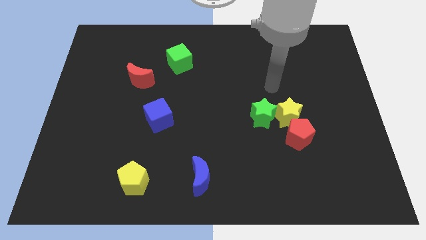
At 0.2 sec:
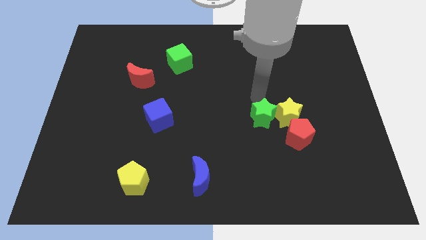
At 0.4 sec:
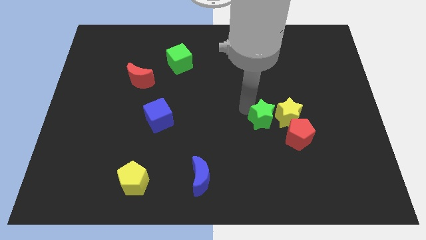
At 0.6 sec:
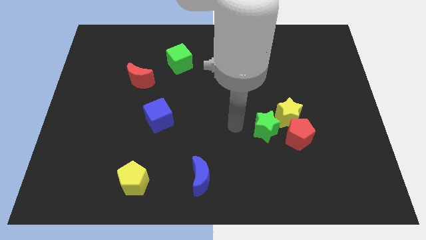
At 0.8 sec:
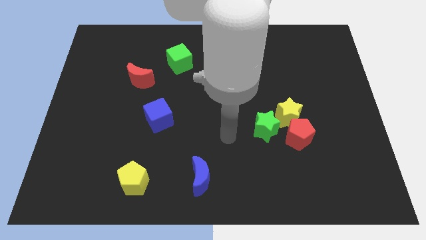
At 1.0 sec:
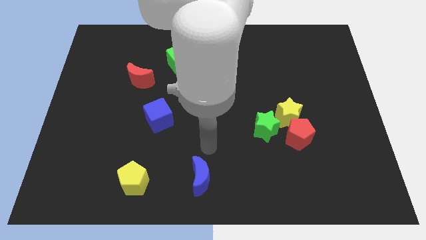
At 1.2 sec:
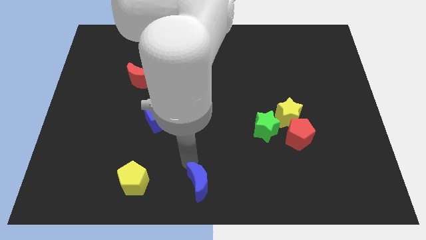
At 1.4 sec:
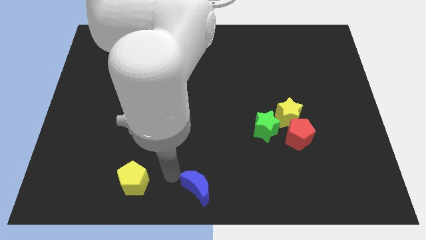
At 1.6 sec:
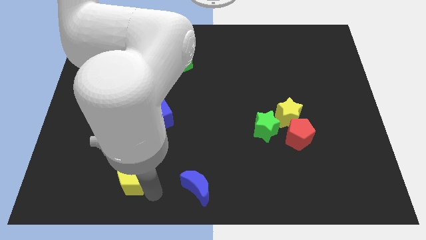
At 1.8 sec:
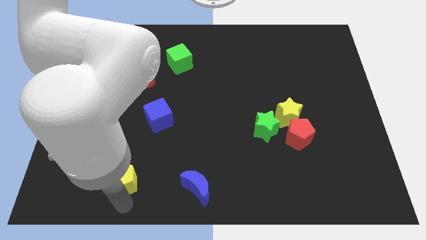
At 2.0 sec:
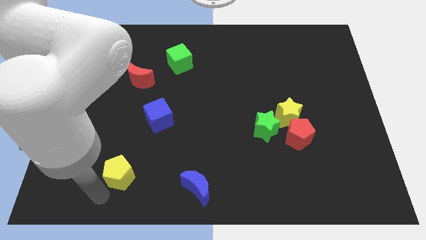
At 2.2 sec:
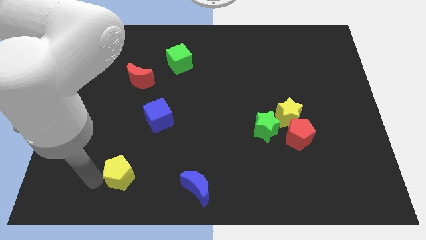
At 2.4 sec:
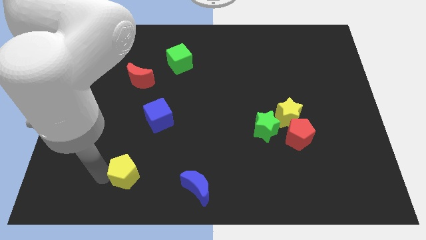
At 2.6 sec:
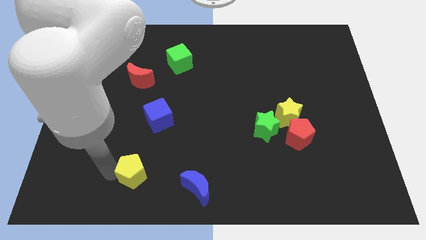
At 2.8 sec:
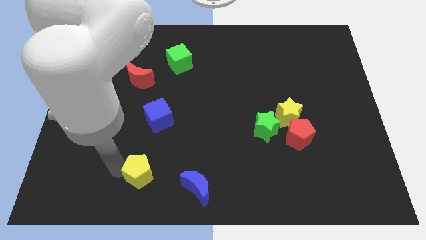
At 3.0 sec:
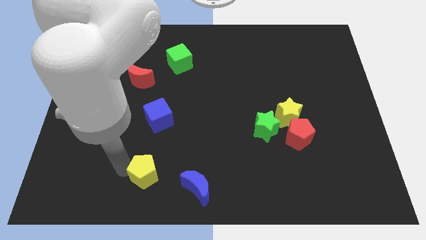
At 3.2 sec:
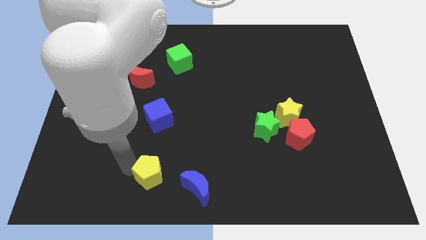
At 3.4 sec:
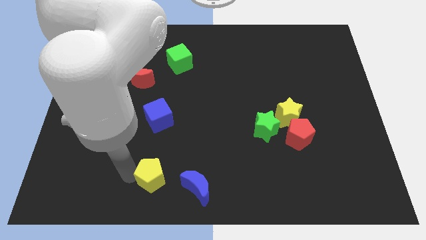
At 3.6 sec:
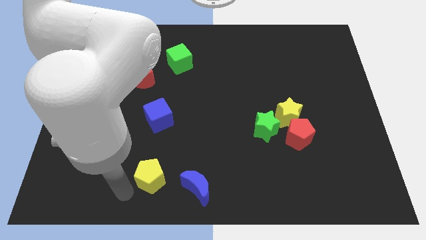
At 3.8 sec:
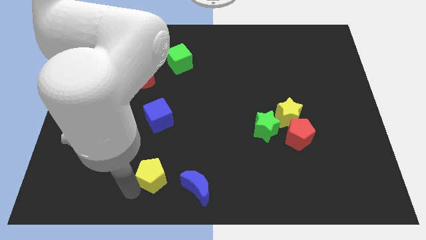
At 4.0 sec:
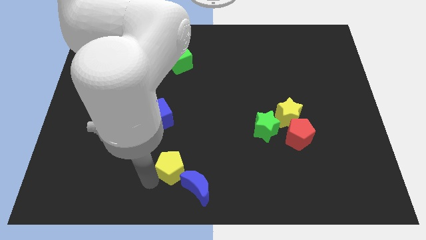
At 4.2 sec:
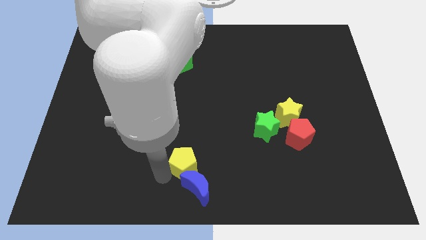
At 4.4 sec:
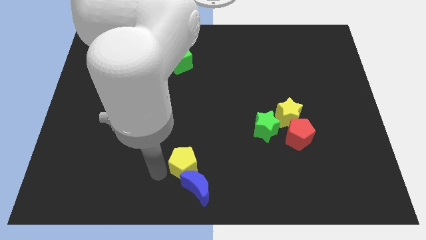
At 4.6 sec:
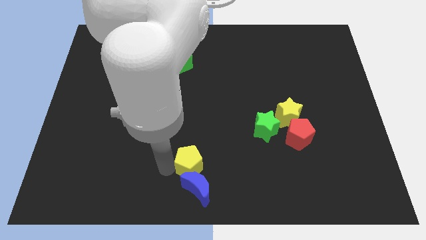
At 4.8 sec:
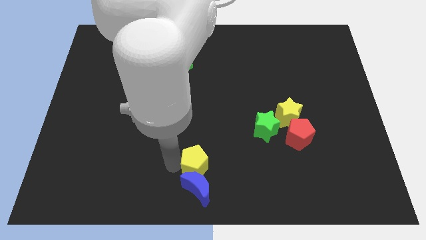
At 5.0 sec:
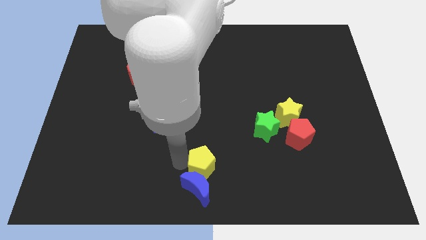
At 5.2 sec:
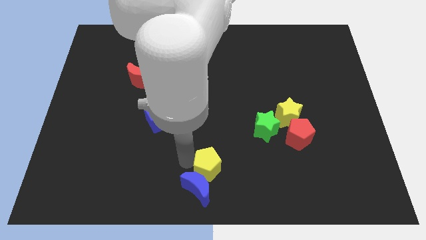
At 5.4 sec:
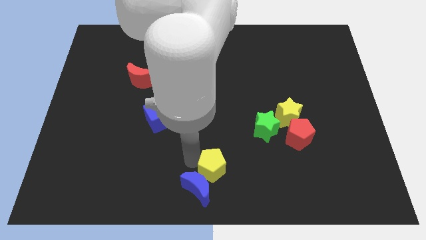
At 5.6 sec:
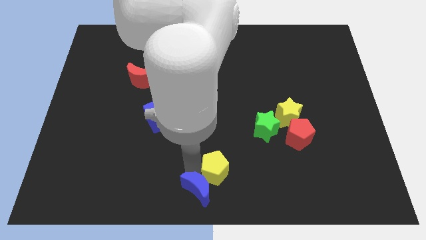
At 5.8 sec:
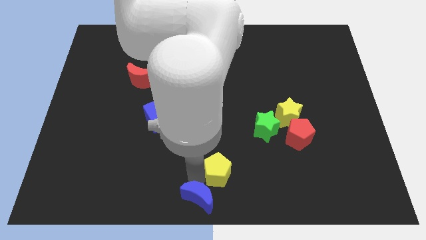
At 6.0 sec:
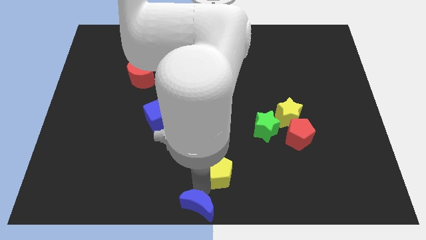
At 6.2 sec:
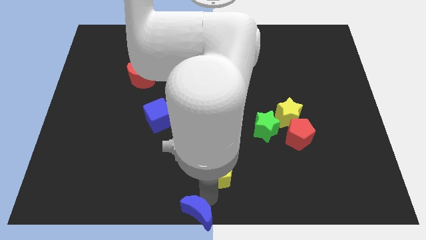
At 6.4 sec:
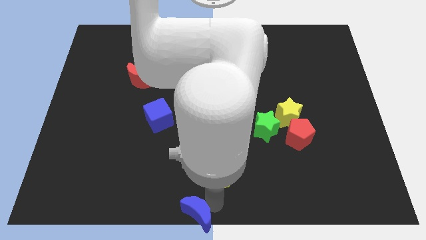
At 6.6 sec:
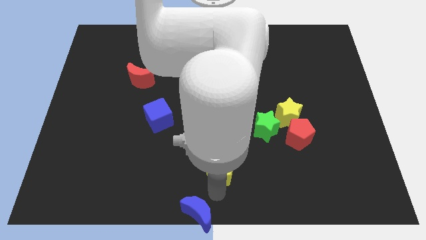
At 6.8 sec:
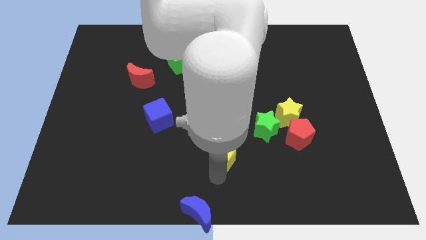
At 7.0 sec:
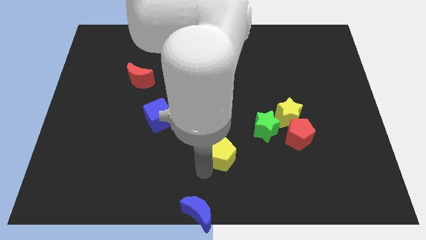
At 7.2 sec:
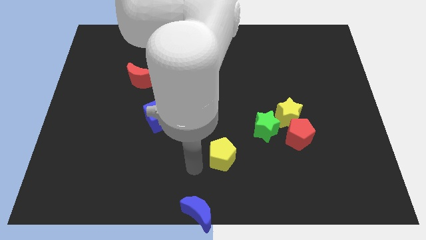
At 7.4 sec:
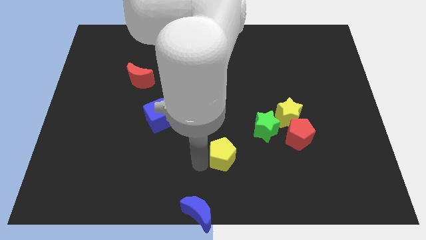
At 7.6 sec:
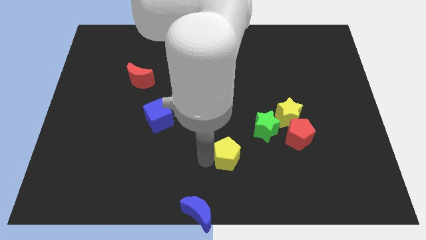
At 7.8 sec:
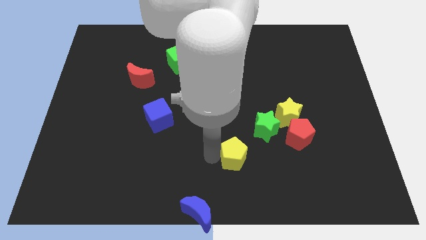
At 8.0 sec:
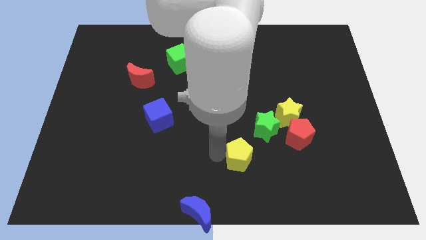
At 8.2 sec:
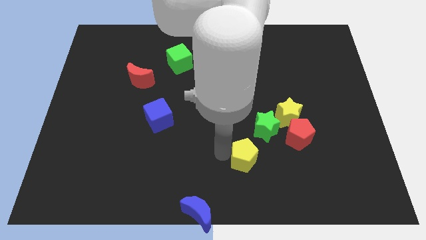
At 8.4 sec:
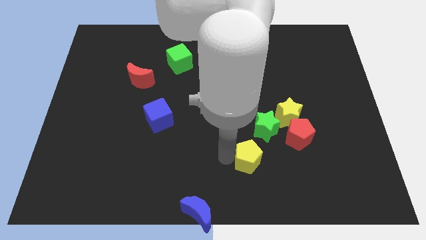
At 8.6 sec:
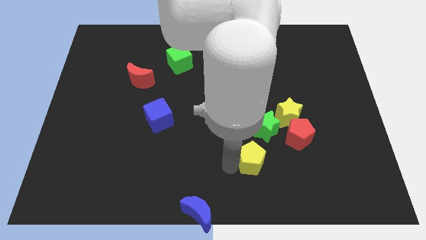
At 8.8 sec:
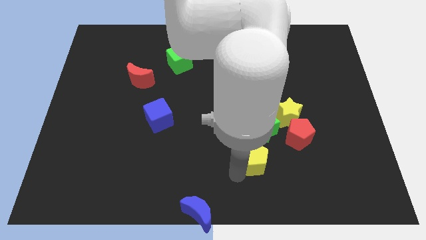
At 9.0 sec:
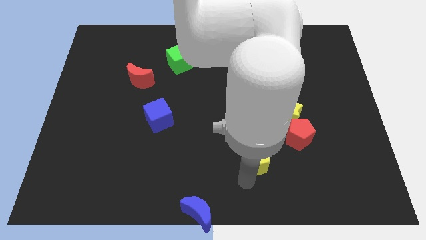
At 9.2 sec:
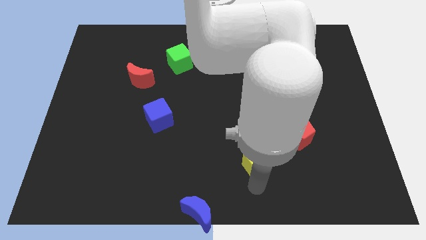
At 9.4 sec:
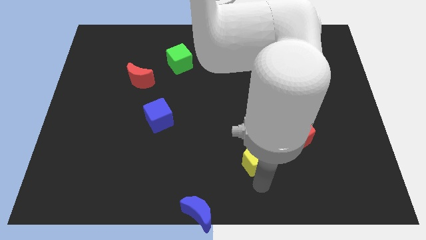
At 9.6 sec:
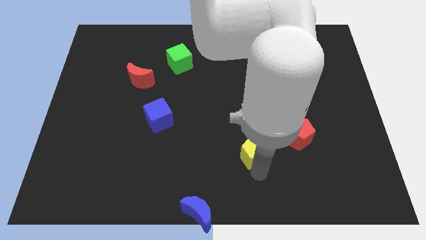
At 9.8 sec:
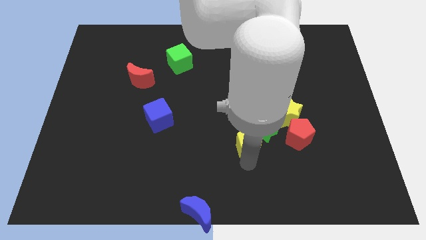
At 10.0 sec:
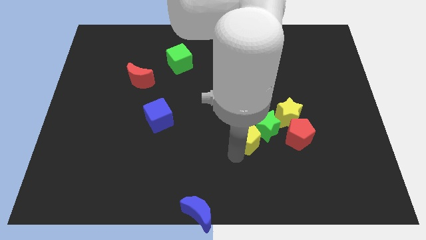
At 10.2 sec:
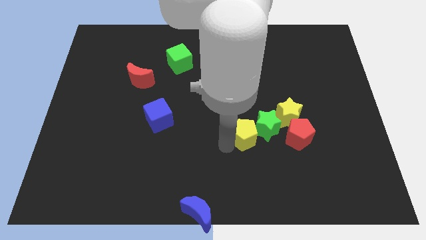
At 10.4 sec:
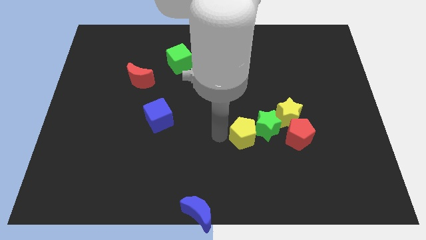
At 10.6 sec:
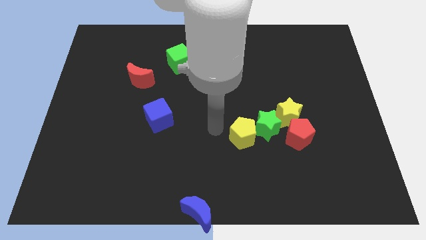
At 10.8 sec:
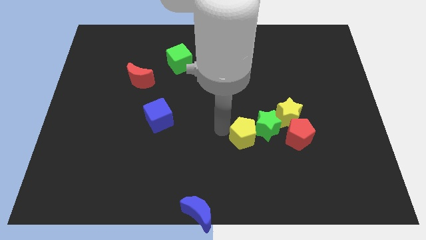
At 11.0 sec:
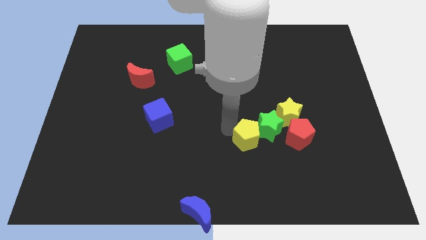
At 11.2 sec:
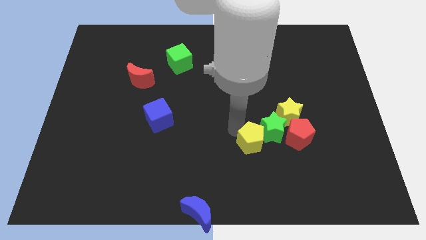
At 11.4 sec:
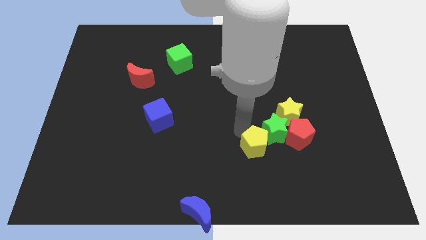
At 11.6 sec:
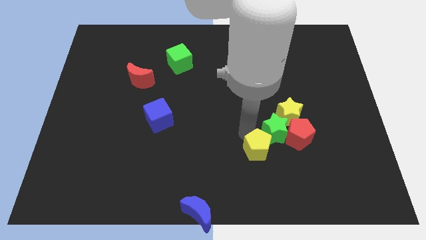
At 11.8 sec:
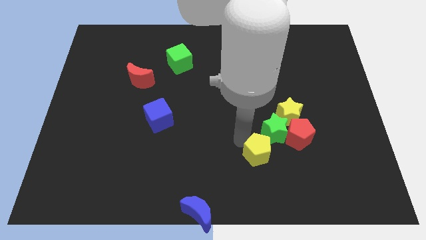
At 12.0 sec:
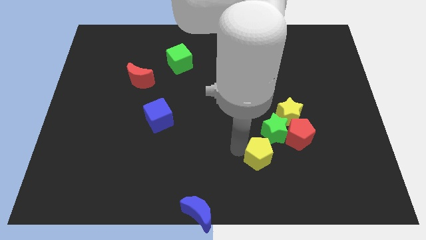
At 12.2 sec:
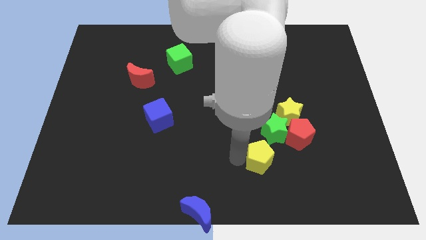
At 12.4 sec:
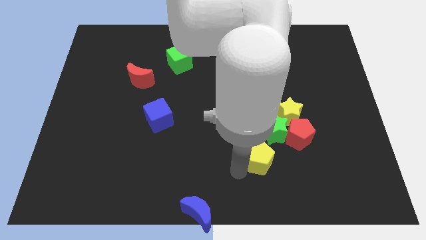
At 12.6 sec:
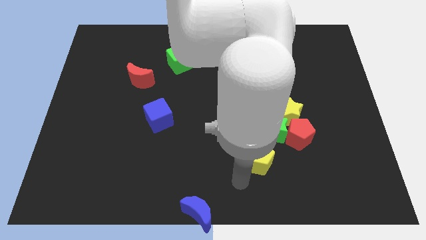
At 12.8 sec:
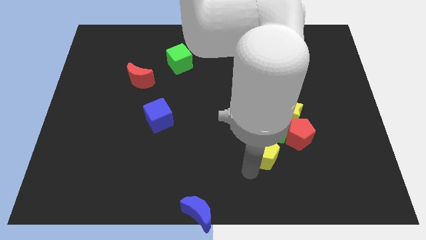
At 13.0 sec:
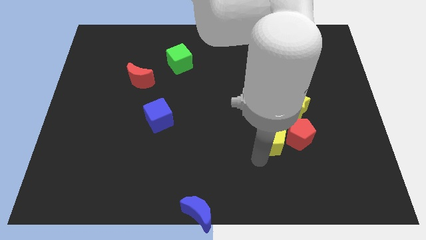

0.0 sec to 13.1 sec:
put the yellow pentagon to the red pentagon

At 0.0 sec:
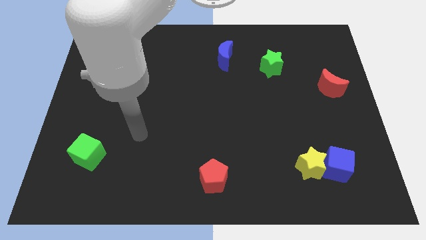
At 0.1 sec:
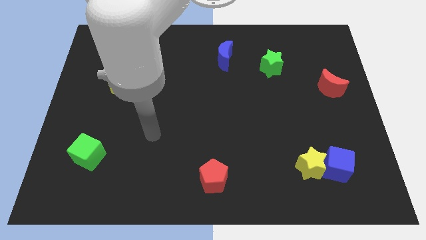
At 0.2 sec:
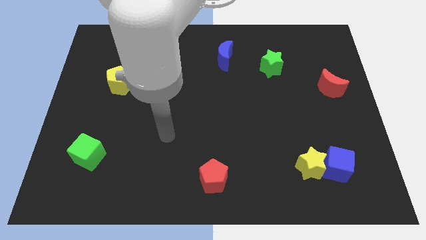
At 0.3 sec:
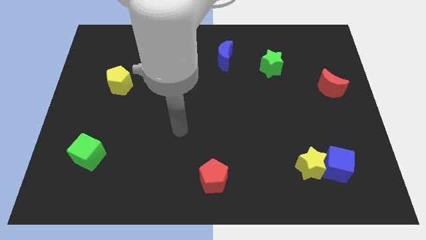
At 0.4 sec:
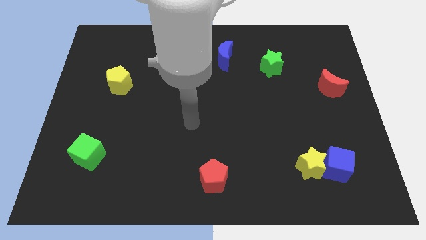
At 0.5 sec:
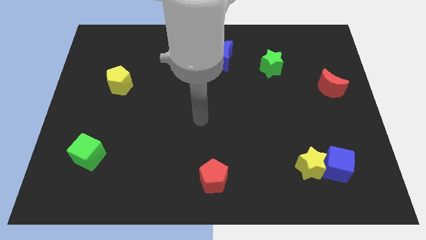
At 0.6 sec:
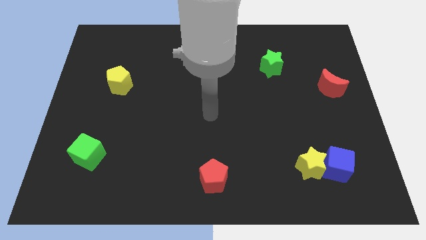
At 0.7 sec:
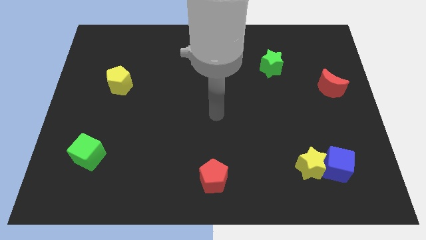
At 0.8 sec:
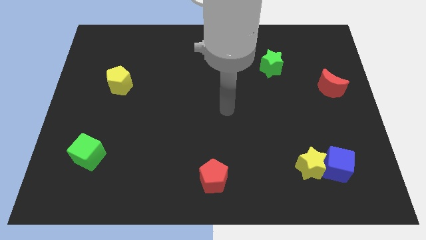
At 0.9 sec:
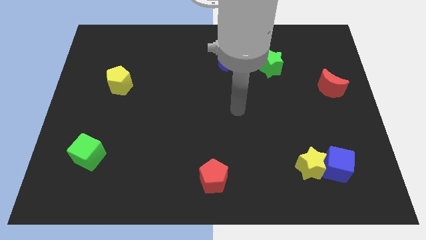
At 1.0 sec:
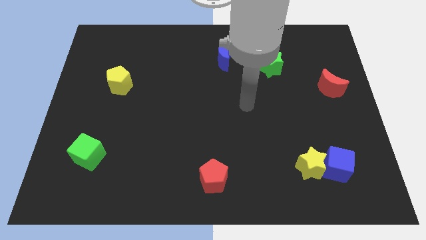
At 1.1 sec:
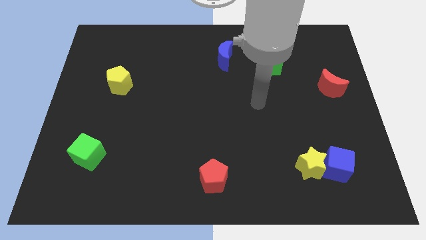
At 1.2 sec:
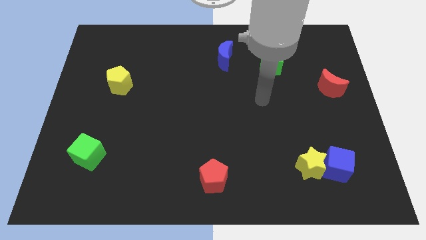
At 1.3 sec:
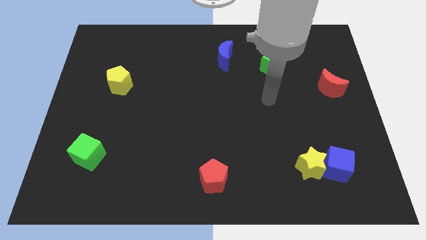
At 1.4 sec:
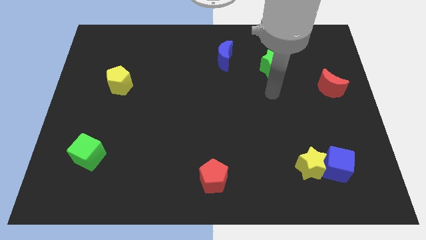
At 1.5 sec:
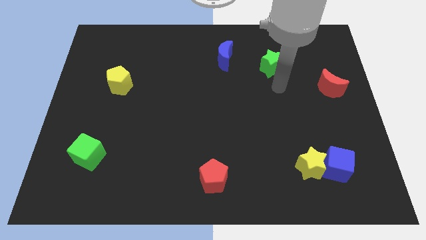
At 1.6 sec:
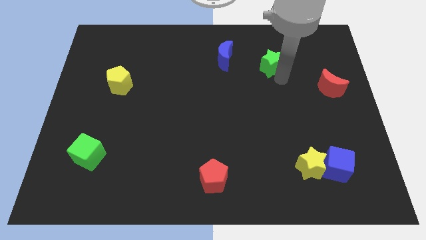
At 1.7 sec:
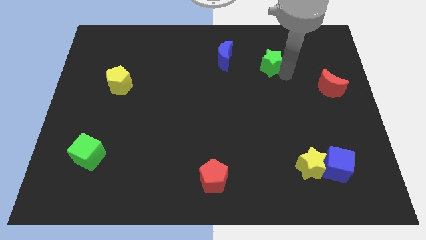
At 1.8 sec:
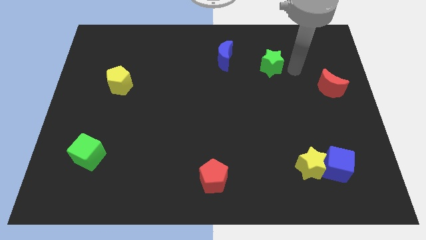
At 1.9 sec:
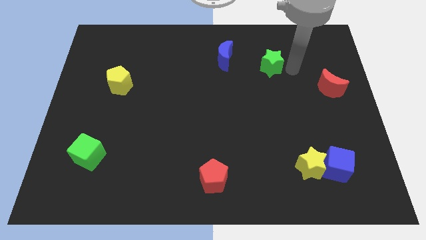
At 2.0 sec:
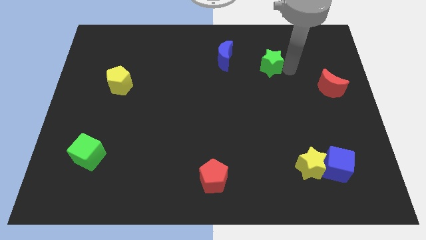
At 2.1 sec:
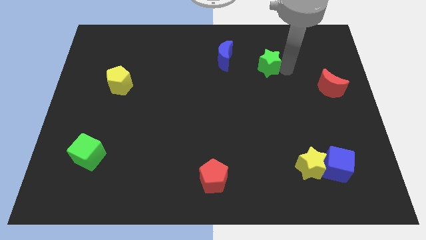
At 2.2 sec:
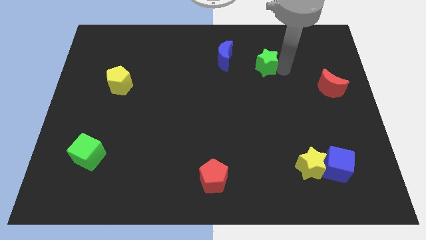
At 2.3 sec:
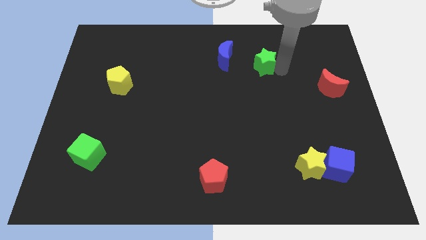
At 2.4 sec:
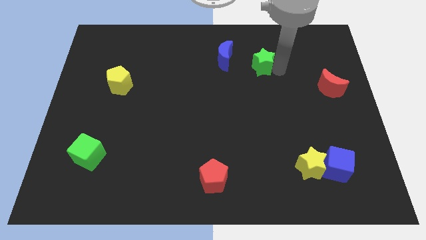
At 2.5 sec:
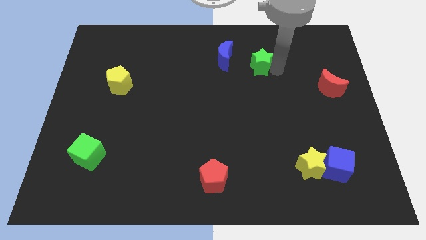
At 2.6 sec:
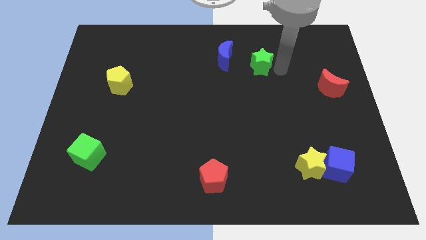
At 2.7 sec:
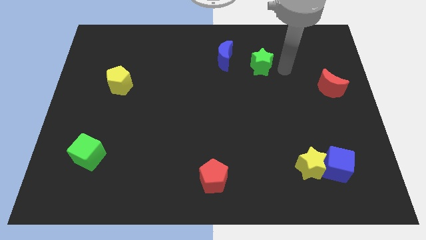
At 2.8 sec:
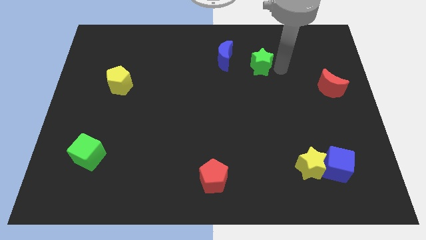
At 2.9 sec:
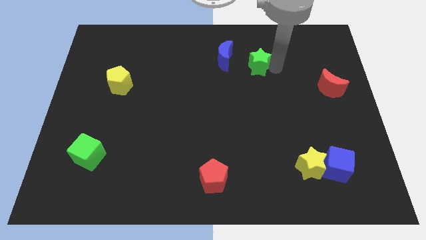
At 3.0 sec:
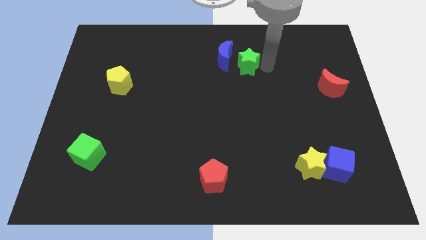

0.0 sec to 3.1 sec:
move the green star to the blue moon
